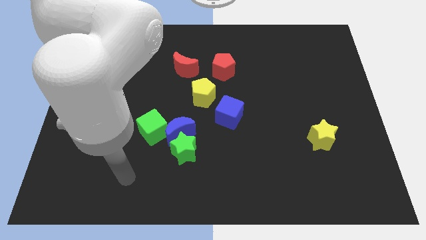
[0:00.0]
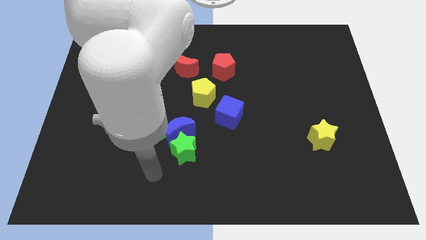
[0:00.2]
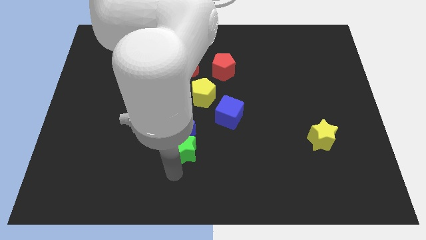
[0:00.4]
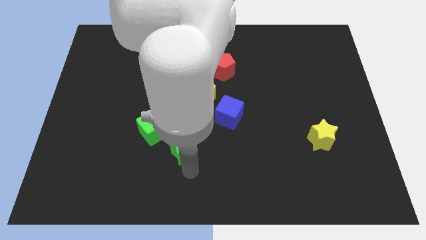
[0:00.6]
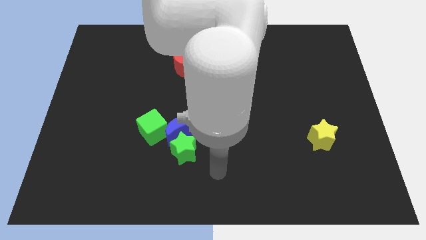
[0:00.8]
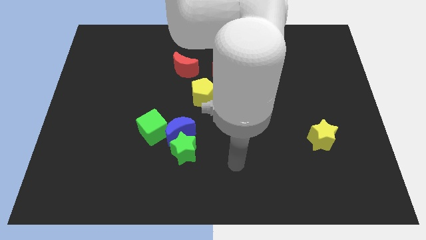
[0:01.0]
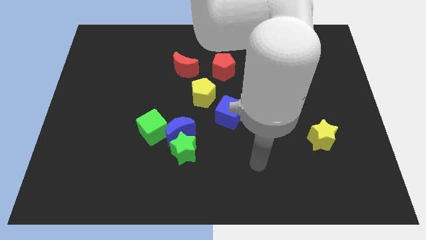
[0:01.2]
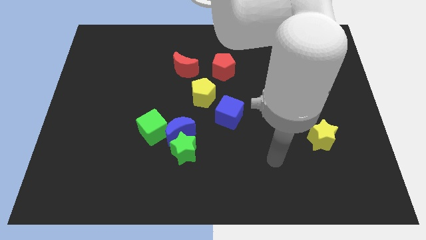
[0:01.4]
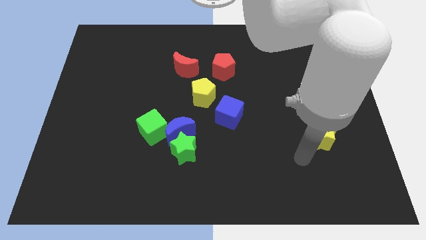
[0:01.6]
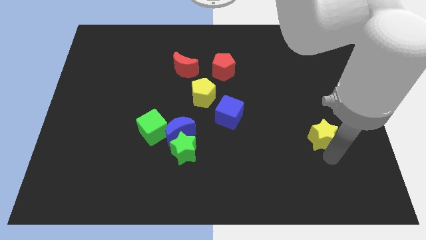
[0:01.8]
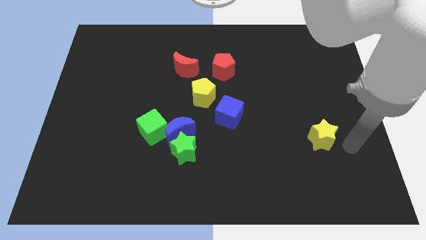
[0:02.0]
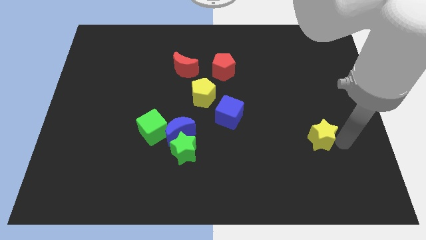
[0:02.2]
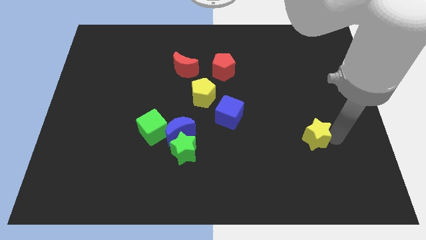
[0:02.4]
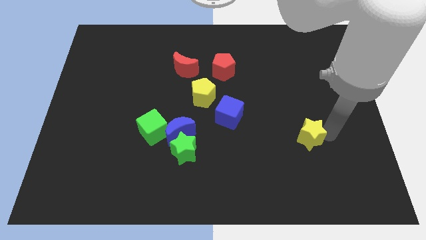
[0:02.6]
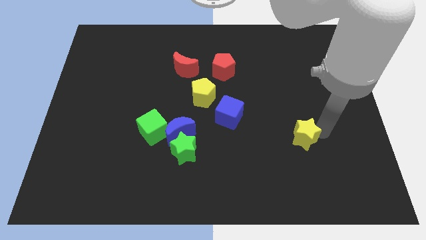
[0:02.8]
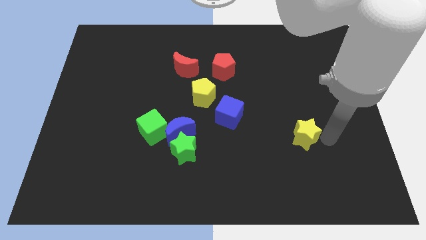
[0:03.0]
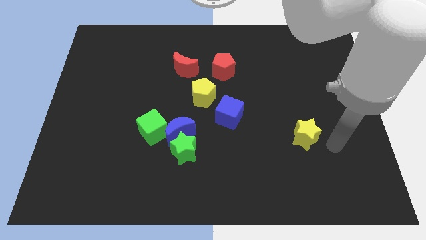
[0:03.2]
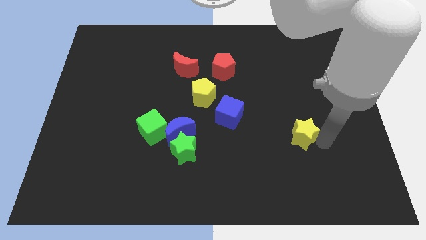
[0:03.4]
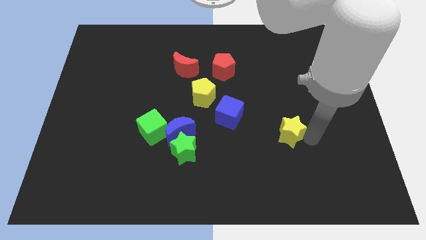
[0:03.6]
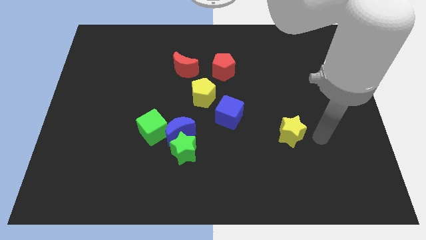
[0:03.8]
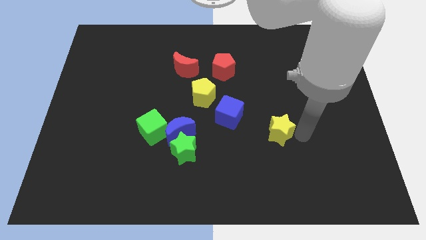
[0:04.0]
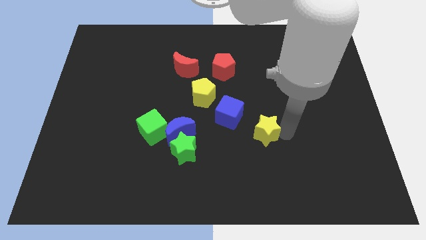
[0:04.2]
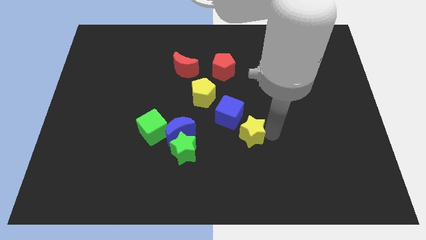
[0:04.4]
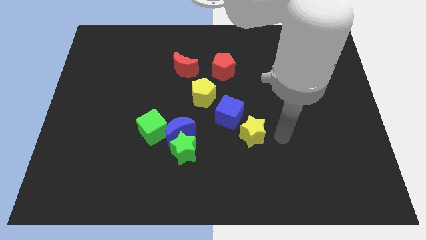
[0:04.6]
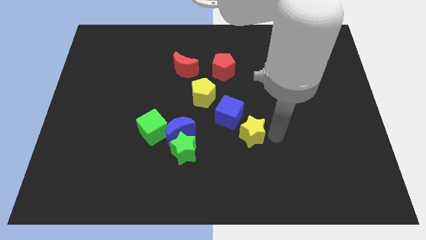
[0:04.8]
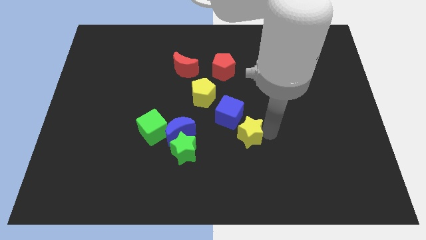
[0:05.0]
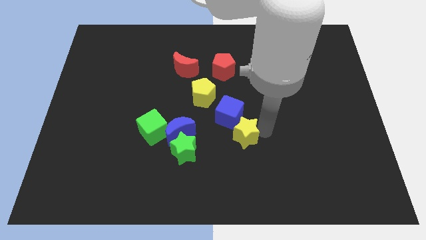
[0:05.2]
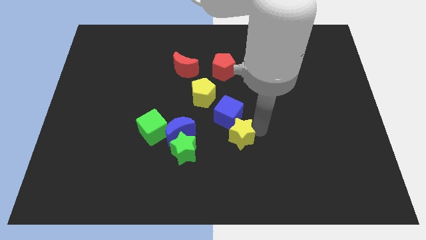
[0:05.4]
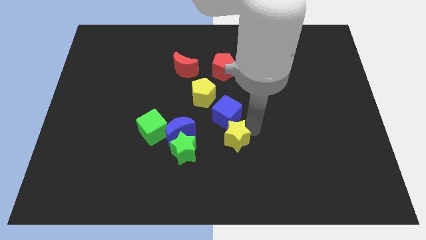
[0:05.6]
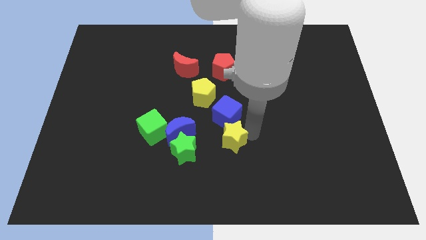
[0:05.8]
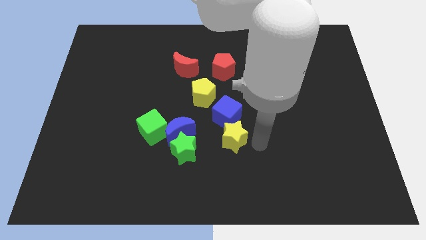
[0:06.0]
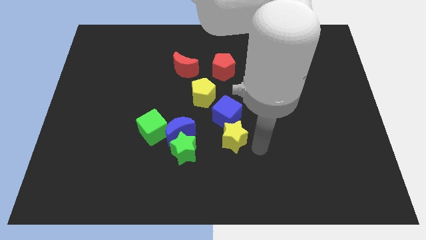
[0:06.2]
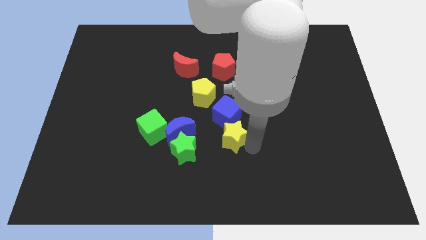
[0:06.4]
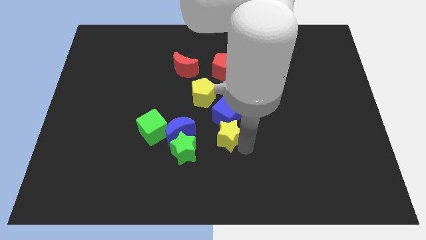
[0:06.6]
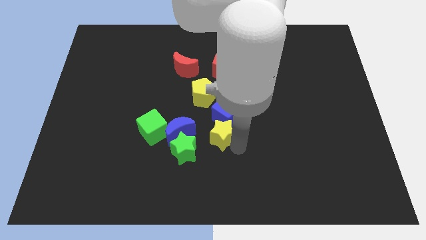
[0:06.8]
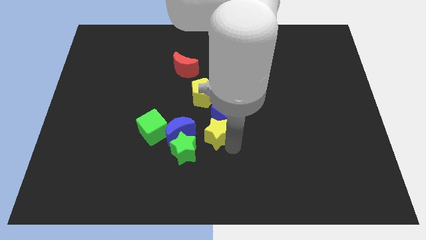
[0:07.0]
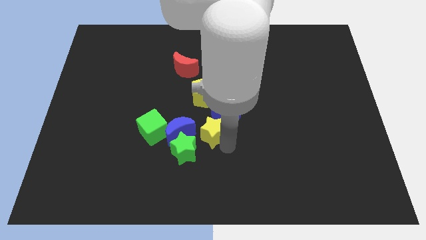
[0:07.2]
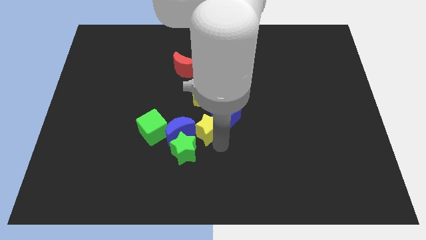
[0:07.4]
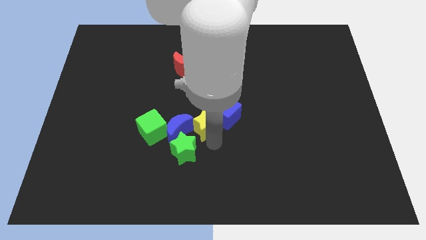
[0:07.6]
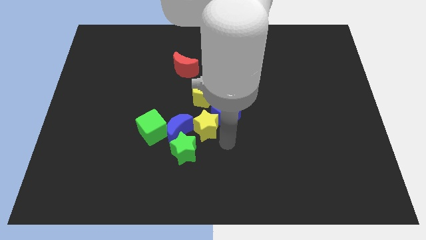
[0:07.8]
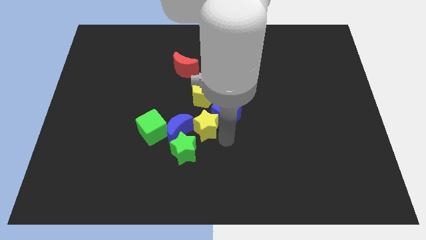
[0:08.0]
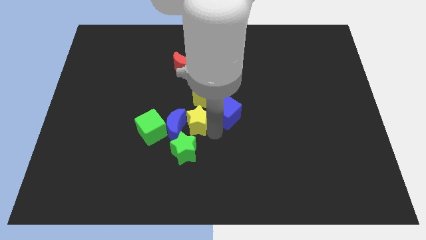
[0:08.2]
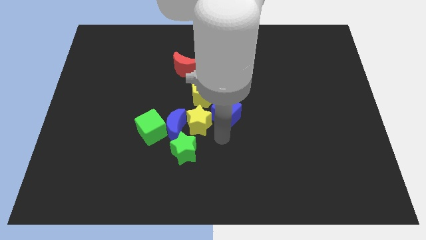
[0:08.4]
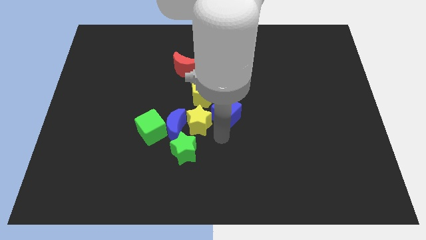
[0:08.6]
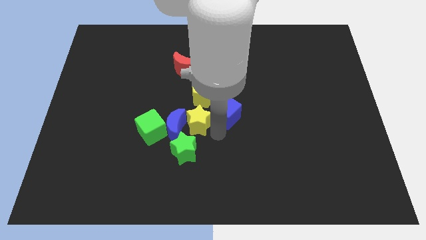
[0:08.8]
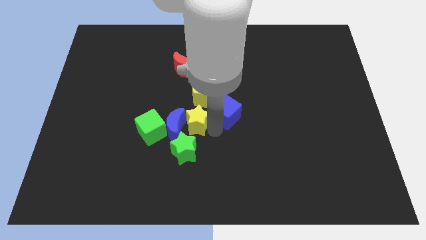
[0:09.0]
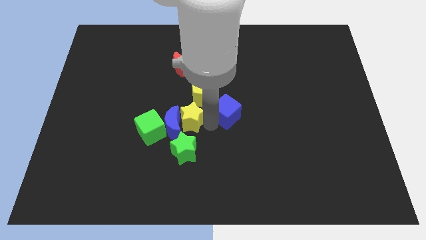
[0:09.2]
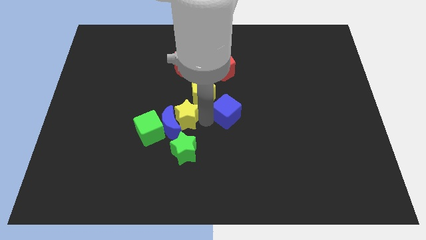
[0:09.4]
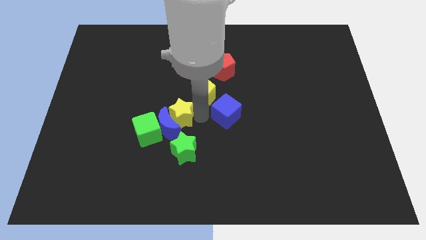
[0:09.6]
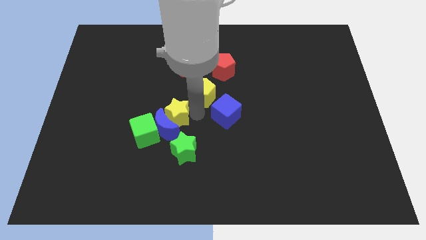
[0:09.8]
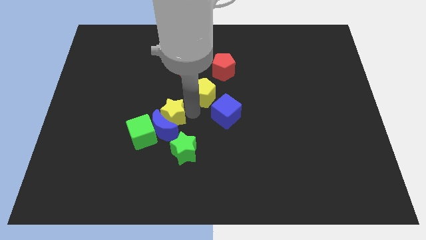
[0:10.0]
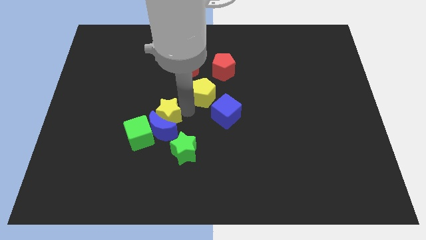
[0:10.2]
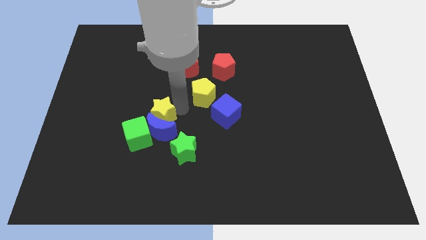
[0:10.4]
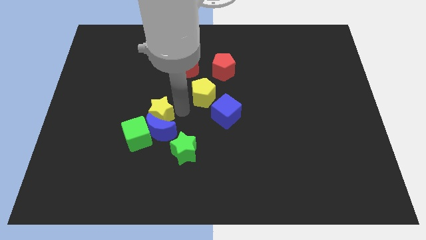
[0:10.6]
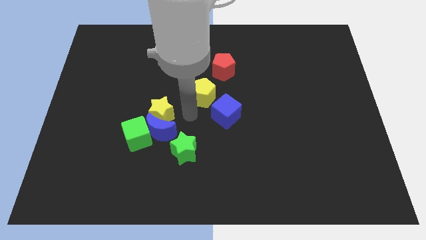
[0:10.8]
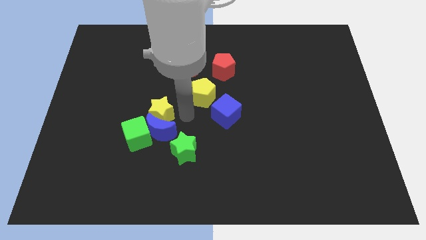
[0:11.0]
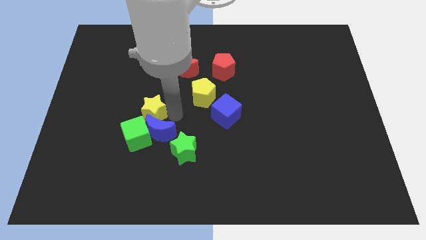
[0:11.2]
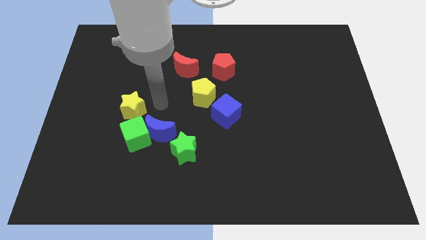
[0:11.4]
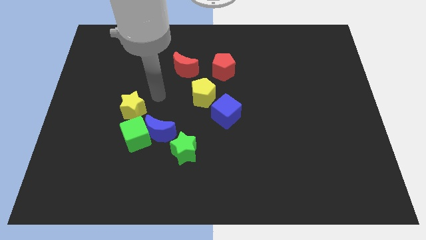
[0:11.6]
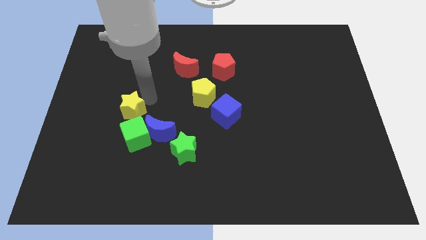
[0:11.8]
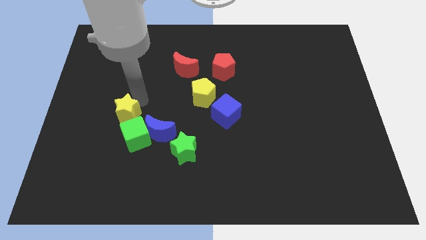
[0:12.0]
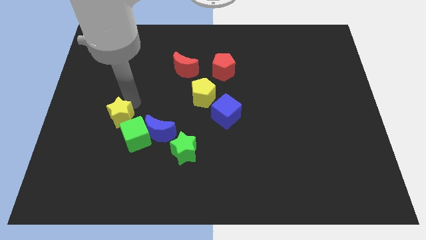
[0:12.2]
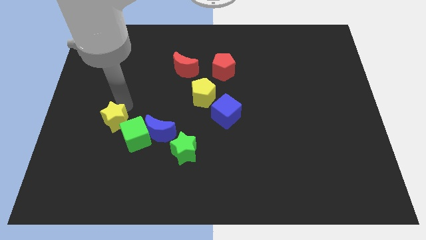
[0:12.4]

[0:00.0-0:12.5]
push the yellow star to the left of the green cube

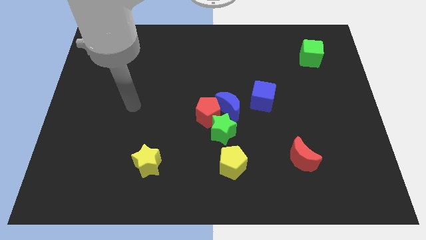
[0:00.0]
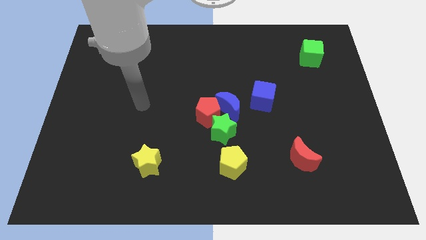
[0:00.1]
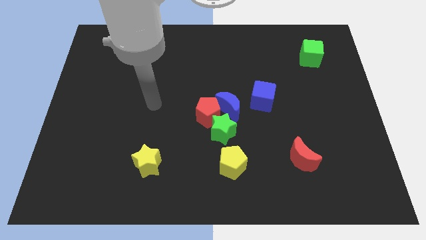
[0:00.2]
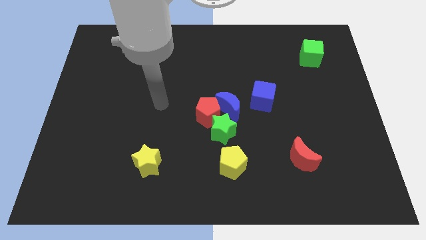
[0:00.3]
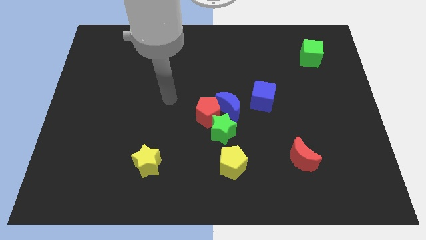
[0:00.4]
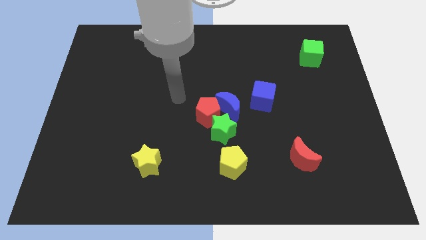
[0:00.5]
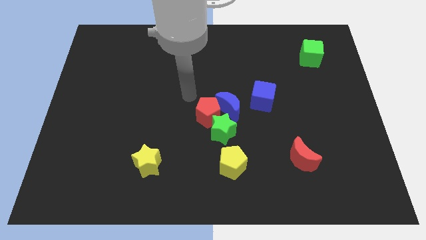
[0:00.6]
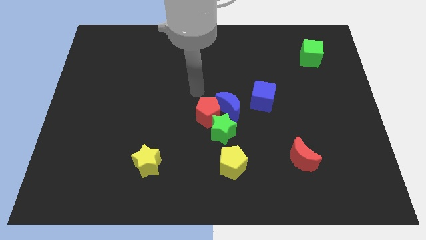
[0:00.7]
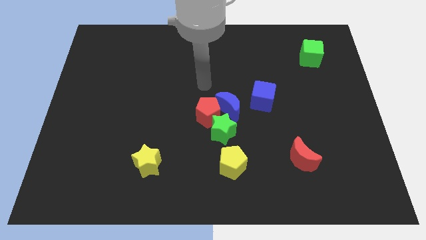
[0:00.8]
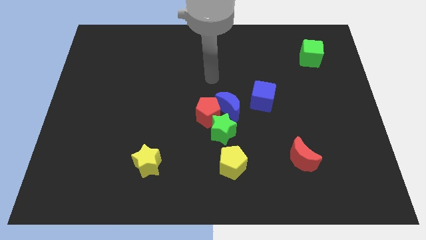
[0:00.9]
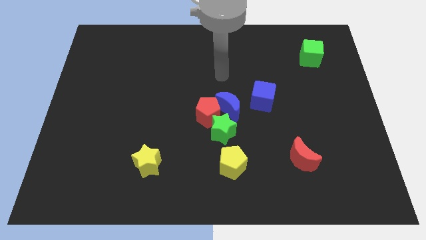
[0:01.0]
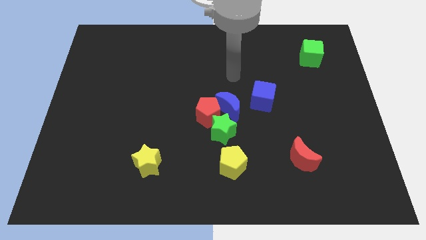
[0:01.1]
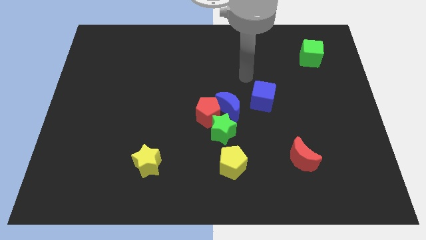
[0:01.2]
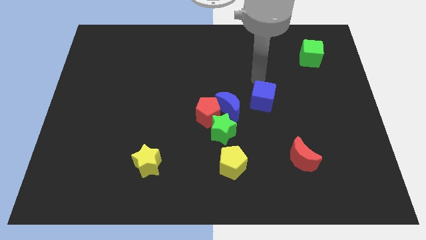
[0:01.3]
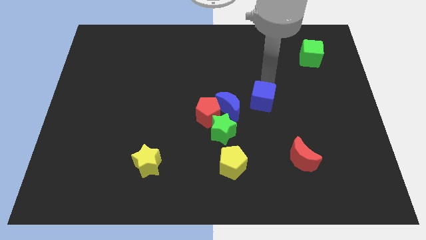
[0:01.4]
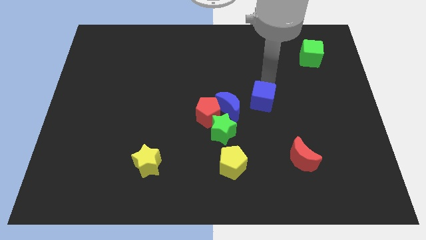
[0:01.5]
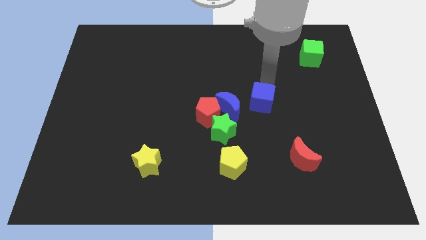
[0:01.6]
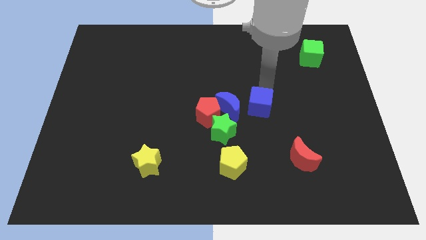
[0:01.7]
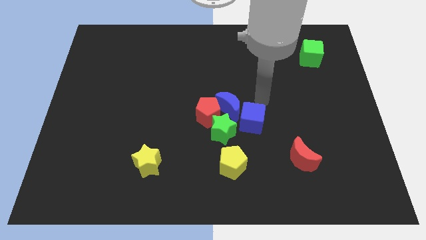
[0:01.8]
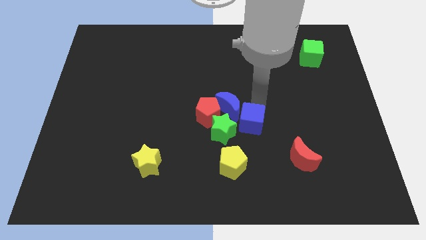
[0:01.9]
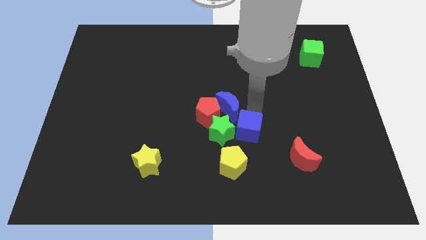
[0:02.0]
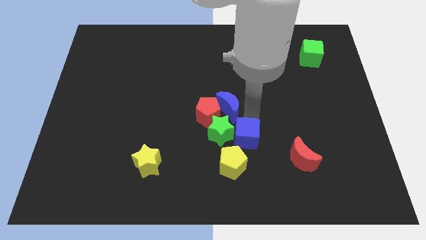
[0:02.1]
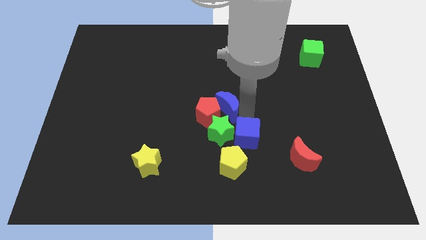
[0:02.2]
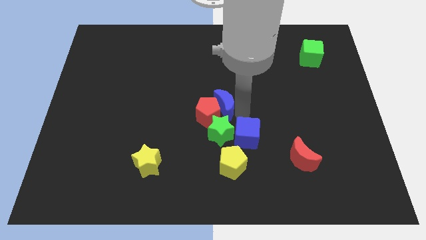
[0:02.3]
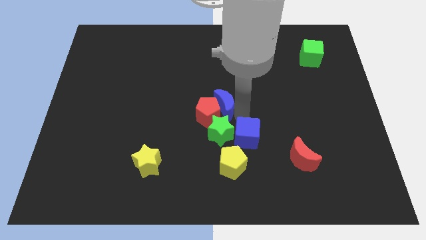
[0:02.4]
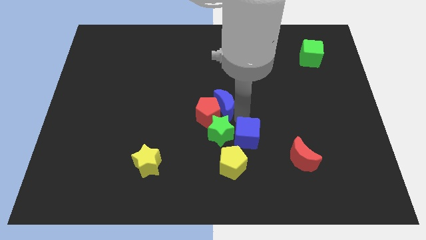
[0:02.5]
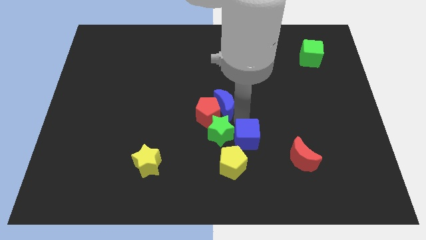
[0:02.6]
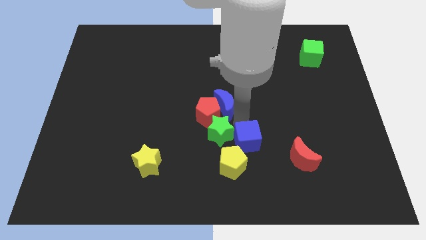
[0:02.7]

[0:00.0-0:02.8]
slide the blue cube to the left of the red moon
